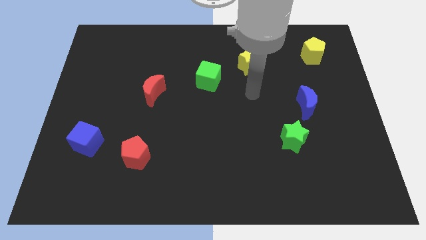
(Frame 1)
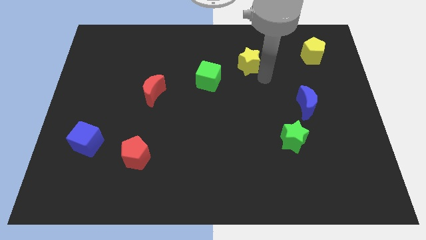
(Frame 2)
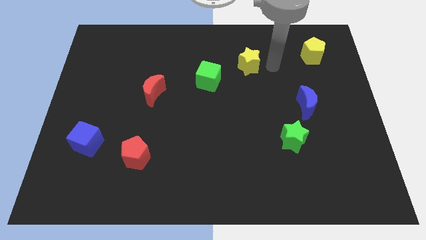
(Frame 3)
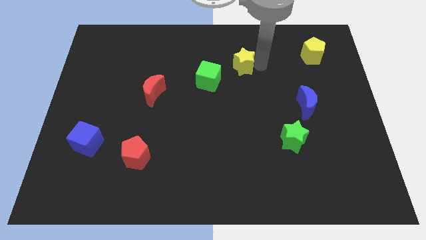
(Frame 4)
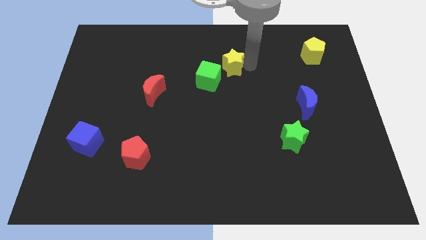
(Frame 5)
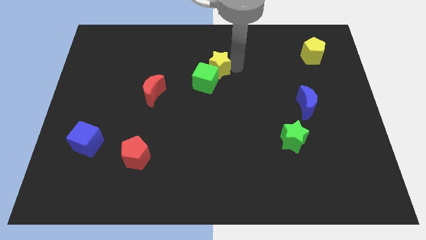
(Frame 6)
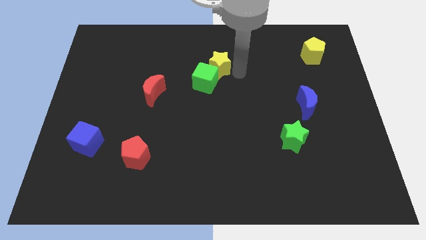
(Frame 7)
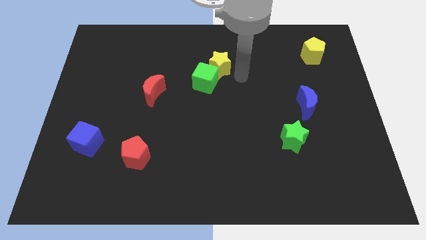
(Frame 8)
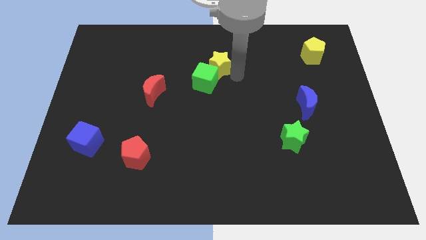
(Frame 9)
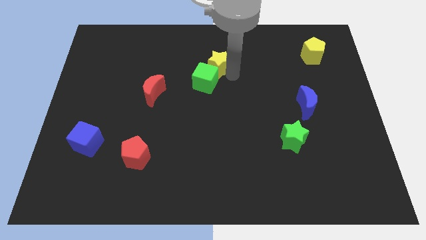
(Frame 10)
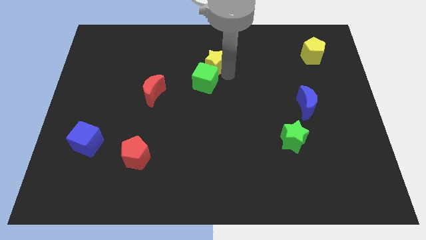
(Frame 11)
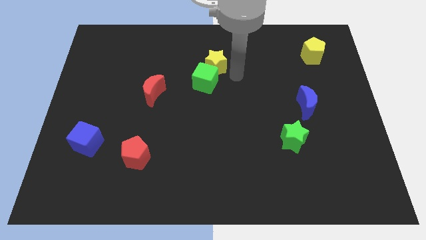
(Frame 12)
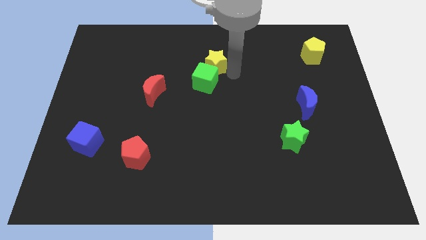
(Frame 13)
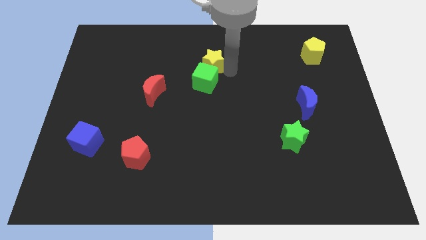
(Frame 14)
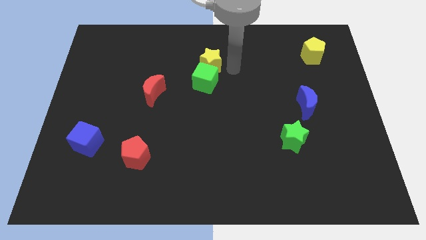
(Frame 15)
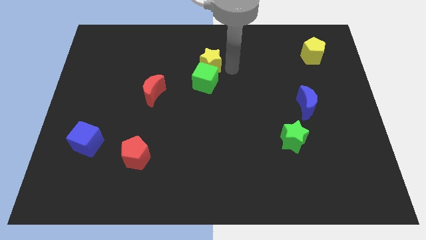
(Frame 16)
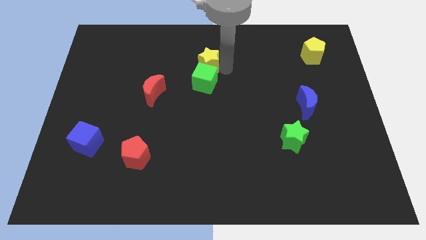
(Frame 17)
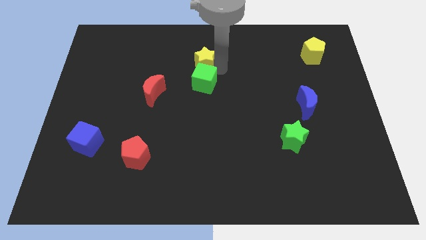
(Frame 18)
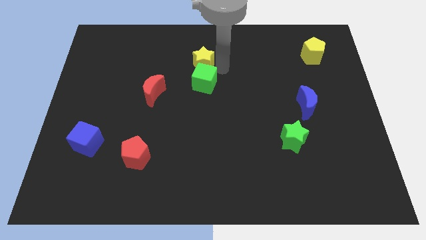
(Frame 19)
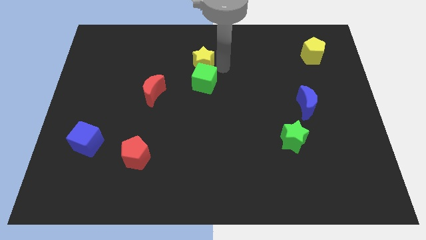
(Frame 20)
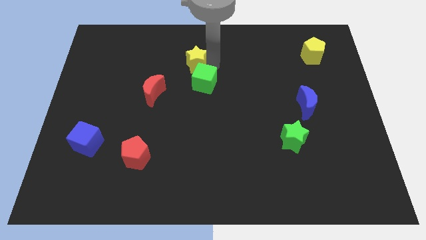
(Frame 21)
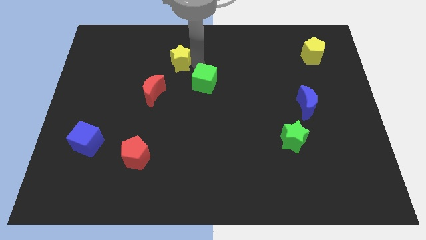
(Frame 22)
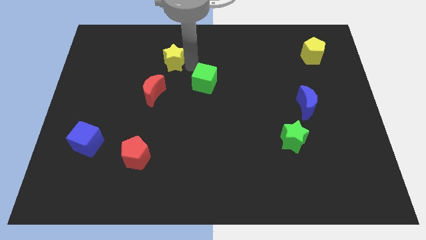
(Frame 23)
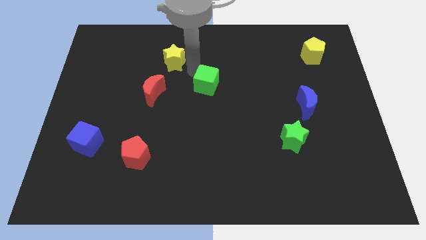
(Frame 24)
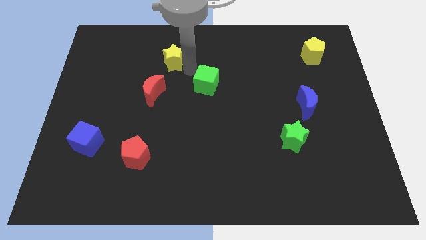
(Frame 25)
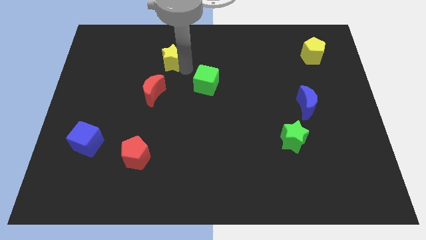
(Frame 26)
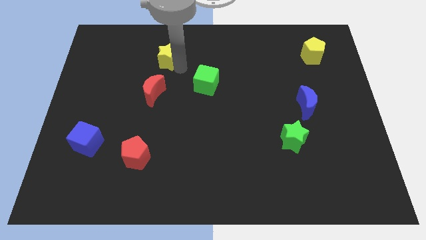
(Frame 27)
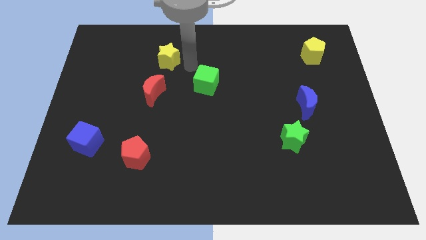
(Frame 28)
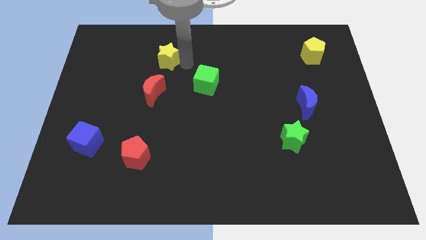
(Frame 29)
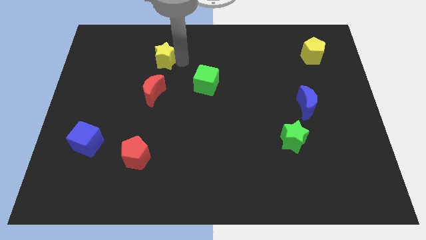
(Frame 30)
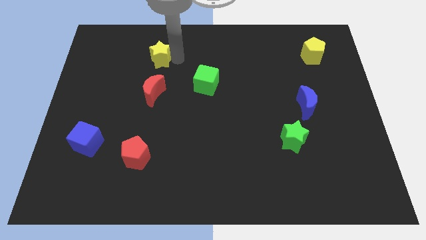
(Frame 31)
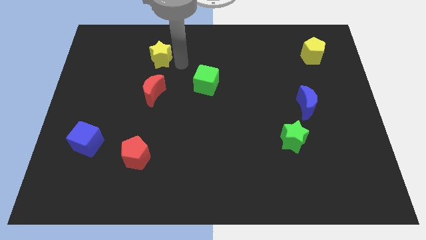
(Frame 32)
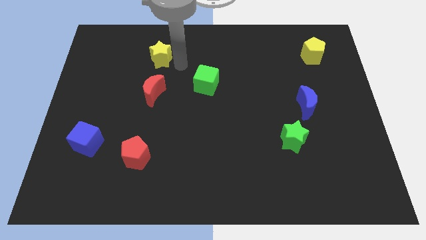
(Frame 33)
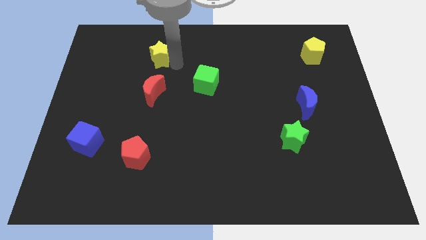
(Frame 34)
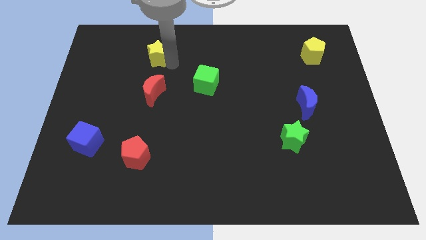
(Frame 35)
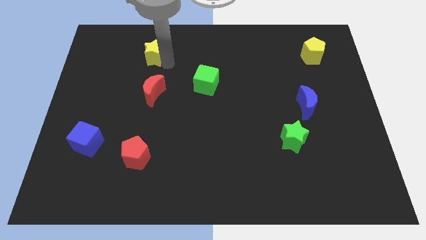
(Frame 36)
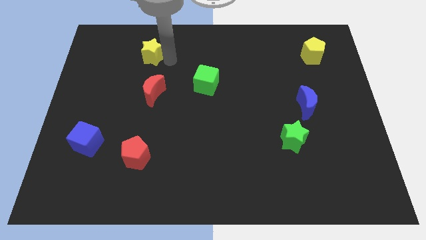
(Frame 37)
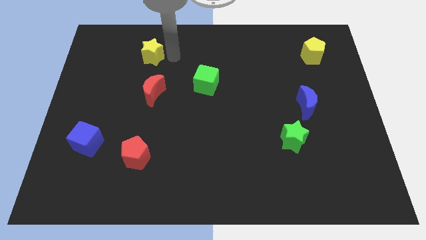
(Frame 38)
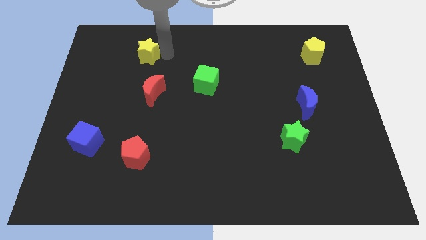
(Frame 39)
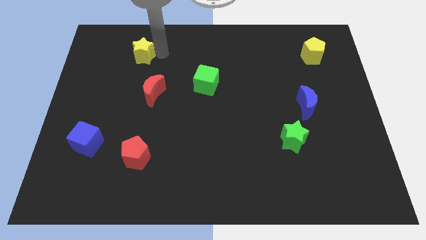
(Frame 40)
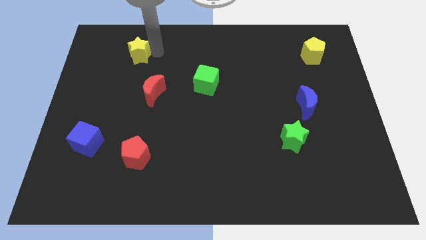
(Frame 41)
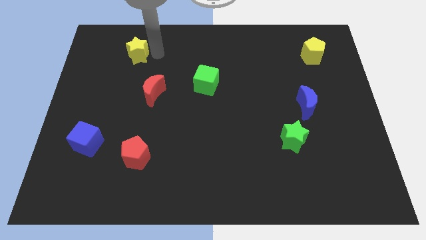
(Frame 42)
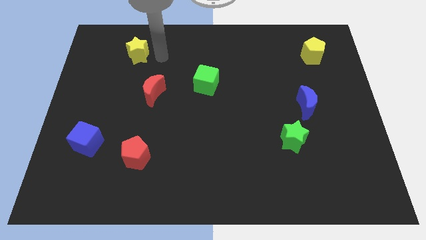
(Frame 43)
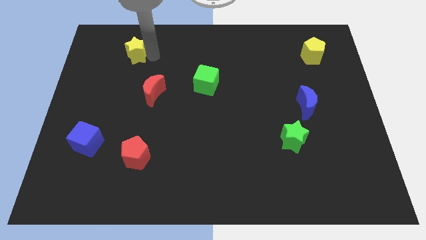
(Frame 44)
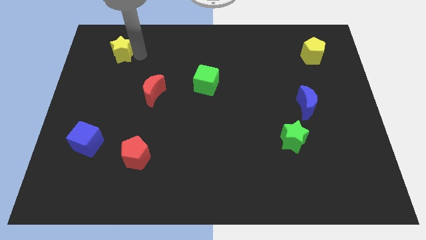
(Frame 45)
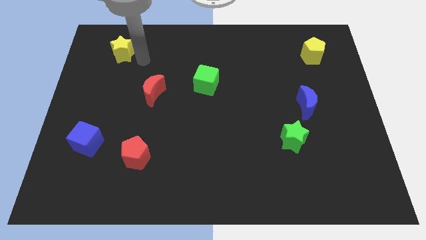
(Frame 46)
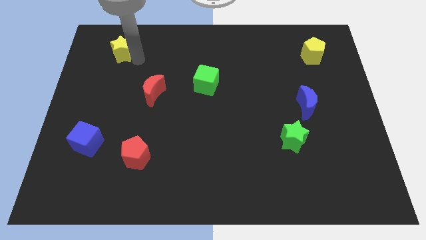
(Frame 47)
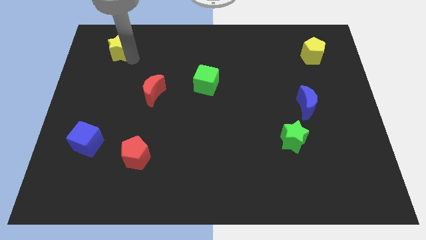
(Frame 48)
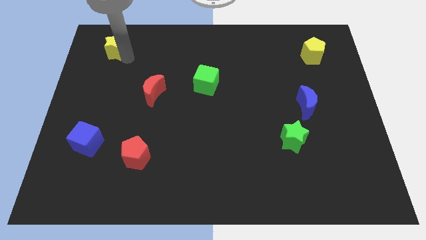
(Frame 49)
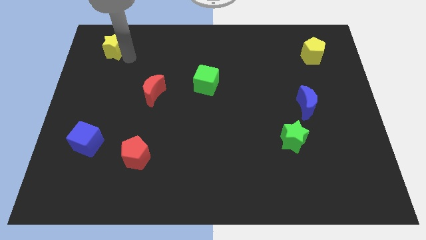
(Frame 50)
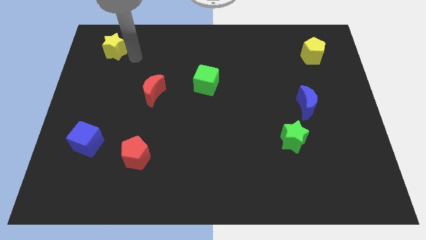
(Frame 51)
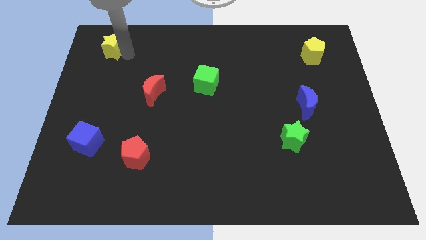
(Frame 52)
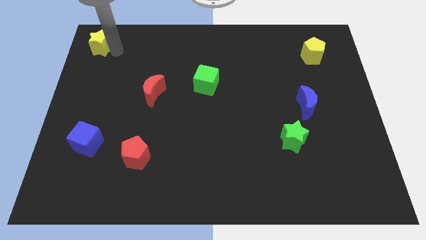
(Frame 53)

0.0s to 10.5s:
move the yellow star to the top left of the board

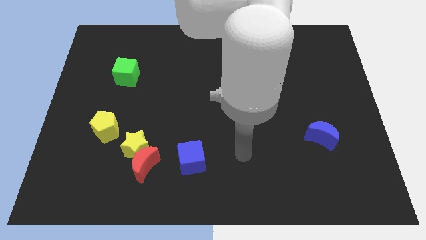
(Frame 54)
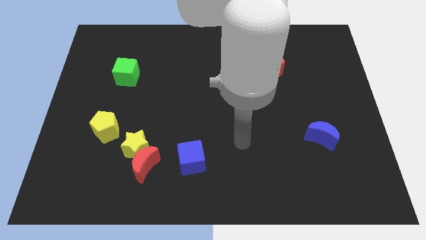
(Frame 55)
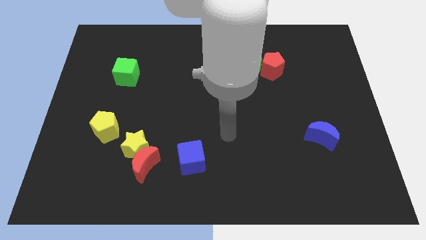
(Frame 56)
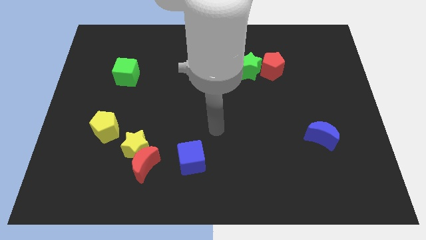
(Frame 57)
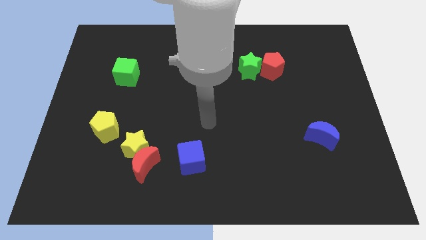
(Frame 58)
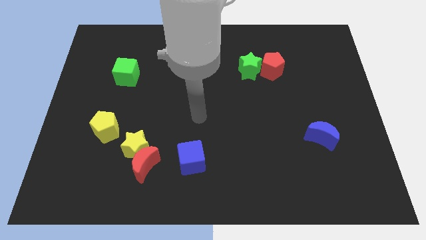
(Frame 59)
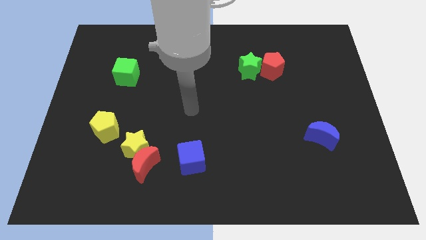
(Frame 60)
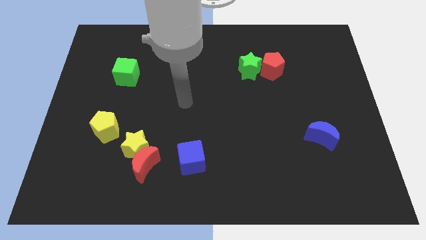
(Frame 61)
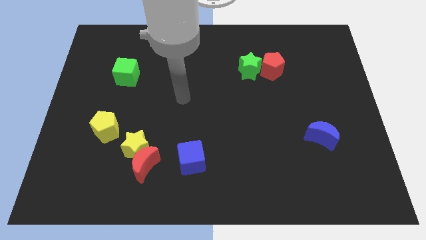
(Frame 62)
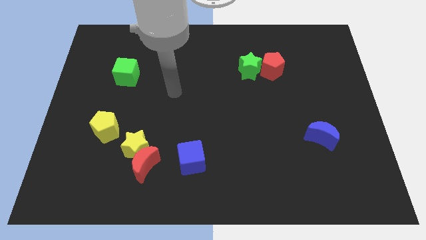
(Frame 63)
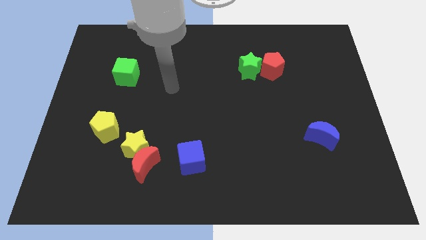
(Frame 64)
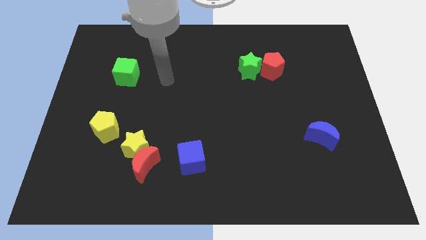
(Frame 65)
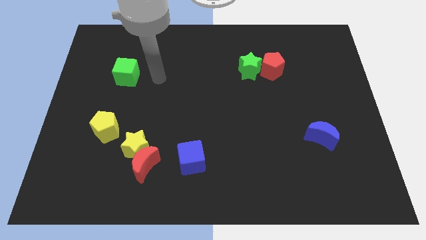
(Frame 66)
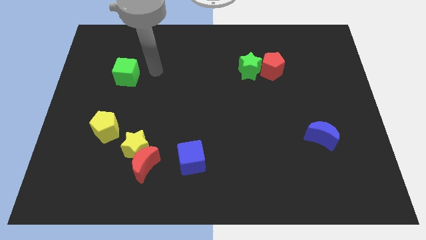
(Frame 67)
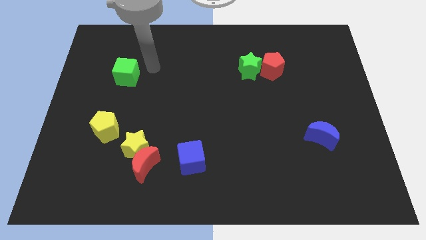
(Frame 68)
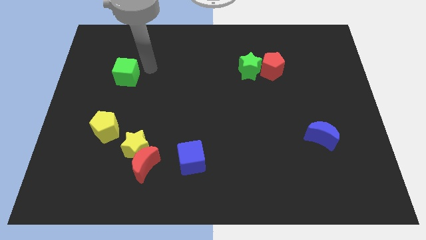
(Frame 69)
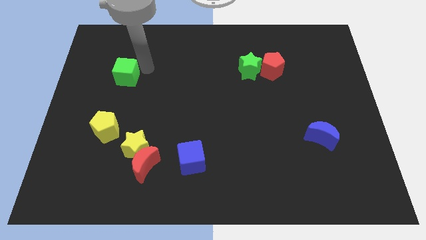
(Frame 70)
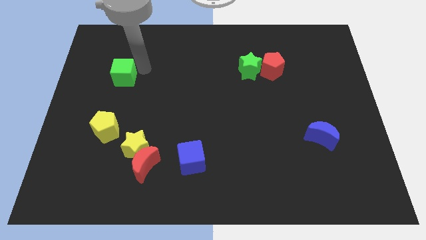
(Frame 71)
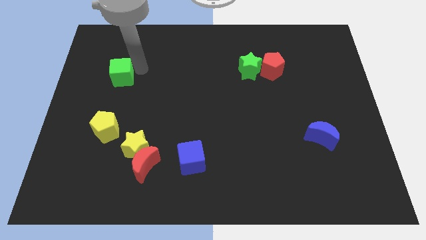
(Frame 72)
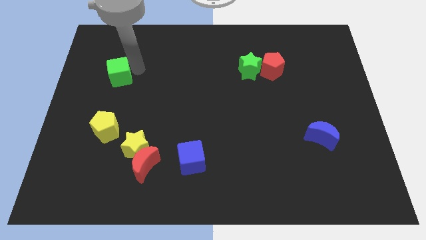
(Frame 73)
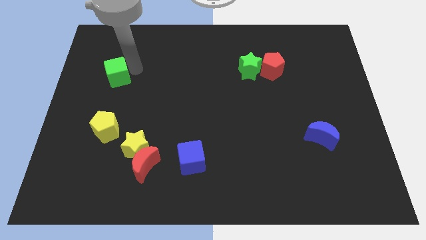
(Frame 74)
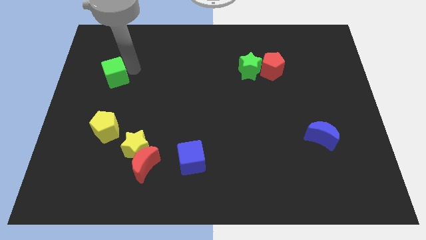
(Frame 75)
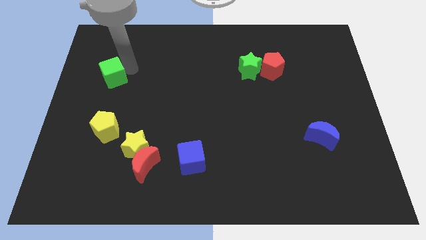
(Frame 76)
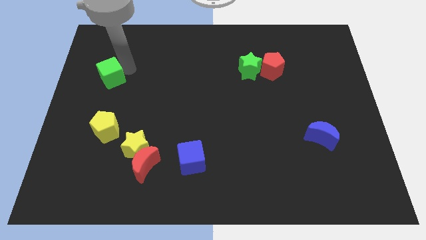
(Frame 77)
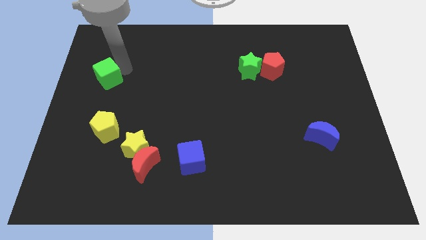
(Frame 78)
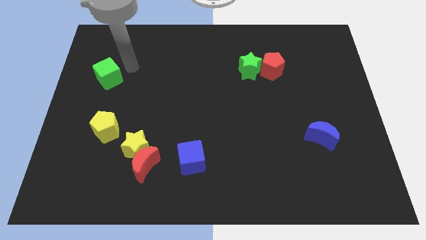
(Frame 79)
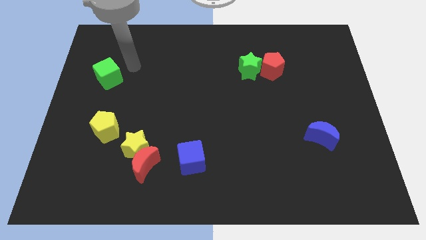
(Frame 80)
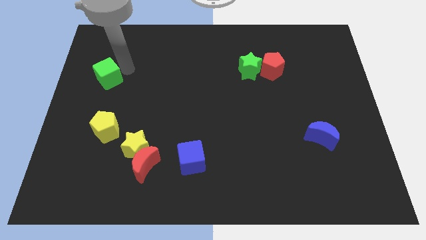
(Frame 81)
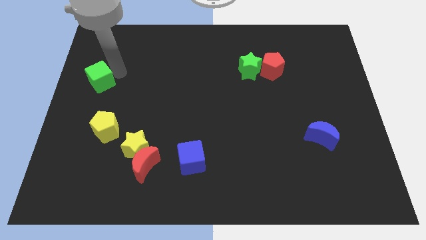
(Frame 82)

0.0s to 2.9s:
move the green cube to the center left
